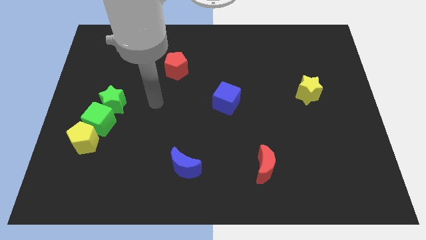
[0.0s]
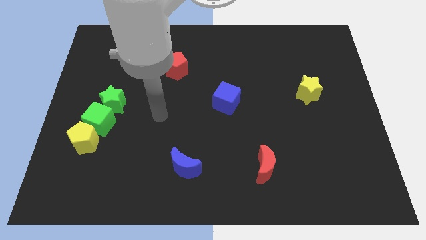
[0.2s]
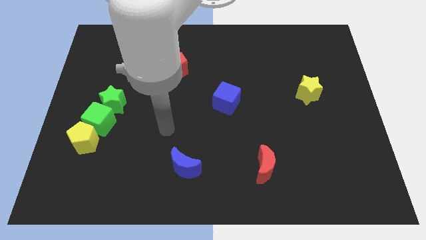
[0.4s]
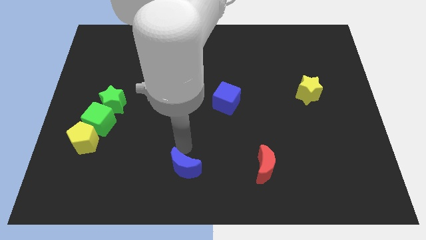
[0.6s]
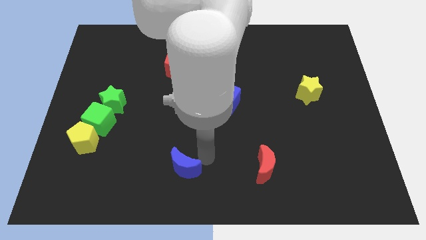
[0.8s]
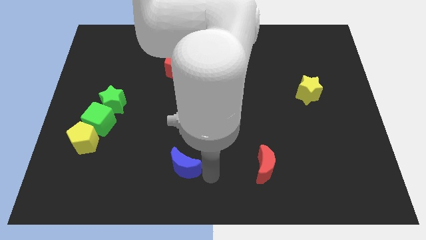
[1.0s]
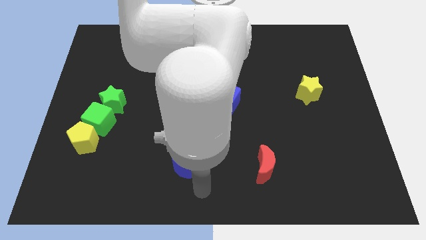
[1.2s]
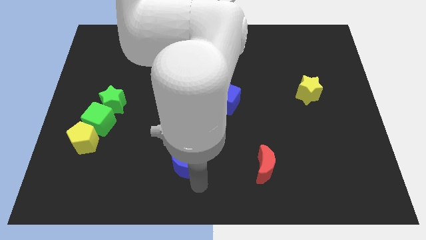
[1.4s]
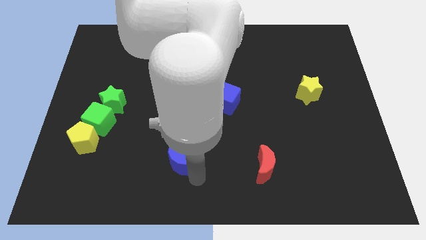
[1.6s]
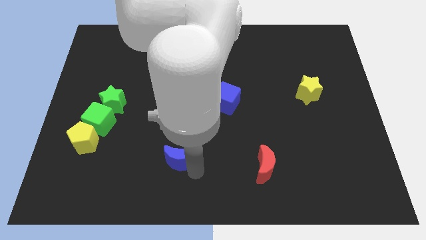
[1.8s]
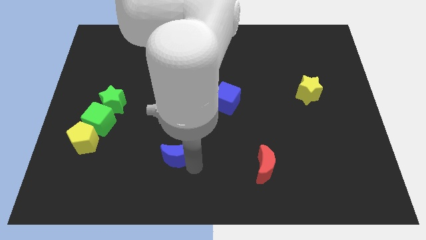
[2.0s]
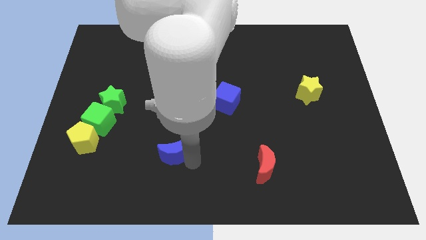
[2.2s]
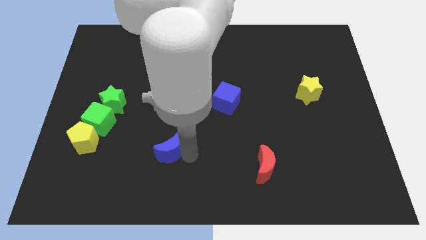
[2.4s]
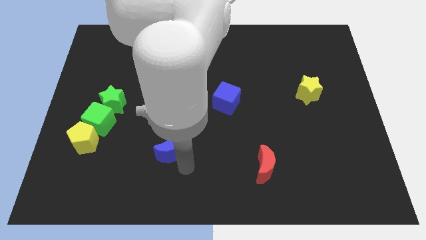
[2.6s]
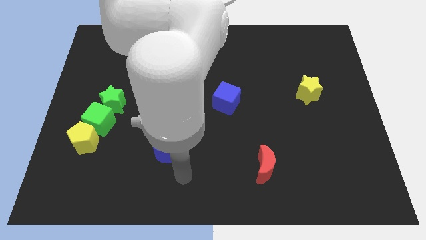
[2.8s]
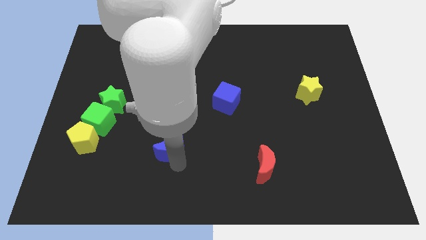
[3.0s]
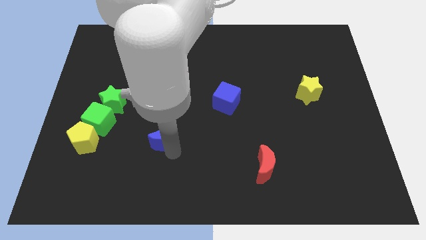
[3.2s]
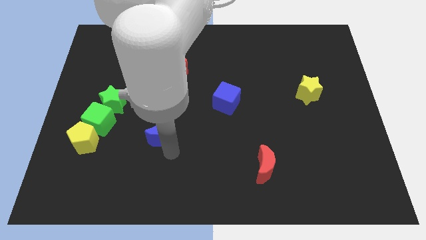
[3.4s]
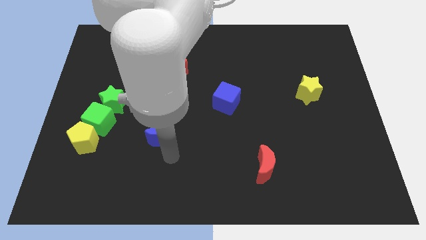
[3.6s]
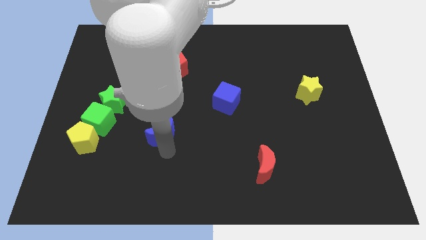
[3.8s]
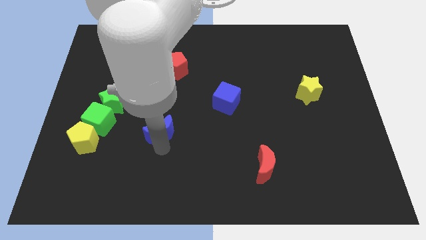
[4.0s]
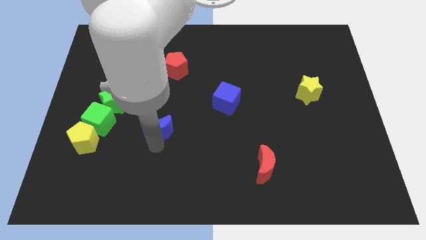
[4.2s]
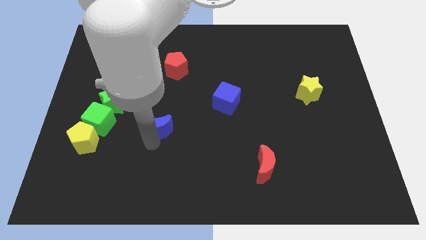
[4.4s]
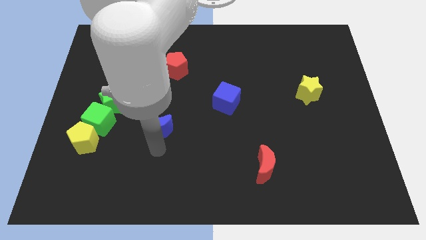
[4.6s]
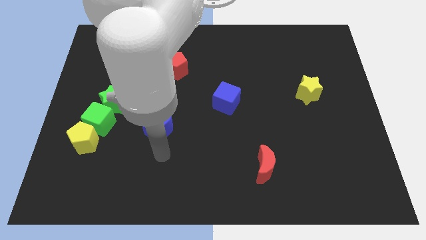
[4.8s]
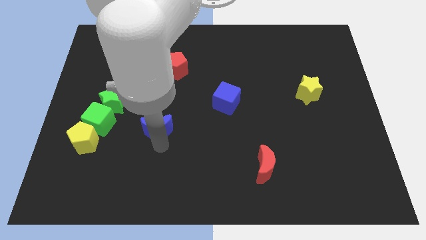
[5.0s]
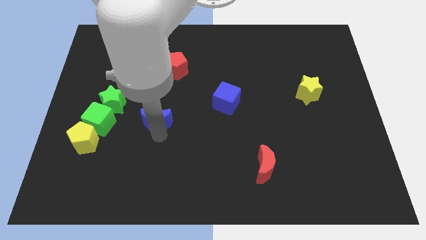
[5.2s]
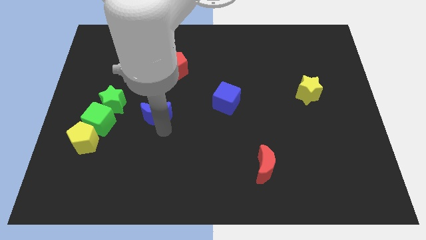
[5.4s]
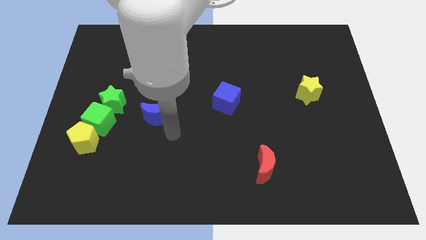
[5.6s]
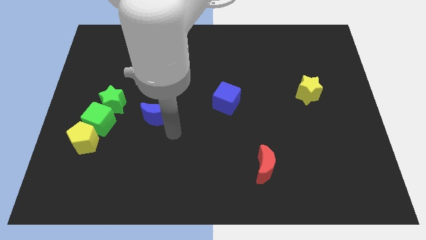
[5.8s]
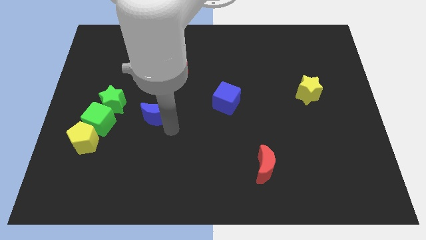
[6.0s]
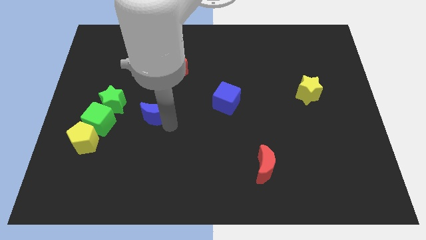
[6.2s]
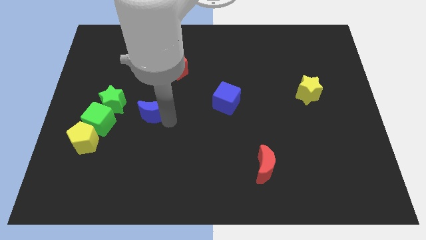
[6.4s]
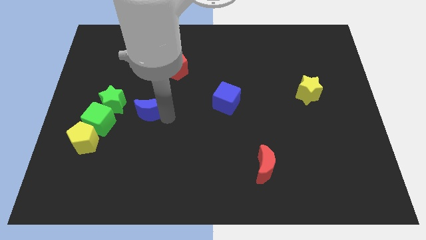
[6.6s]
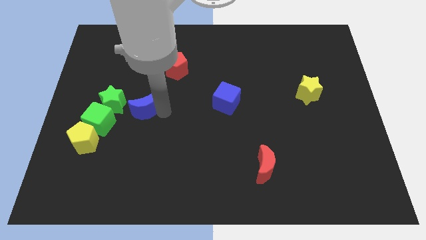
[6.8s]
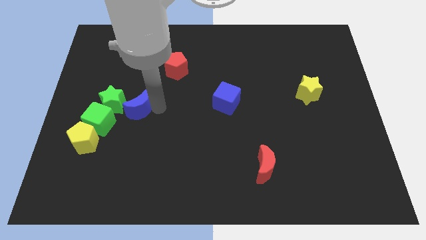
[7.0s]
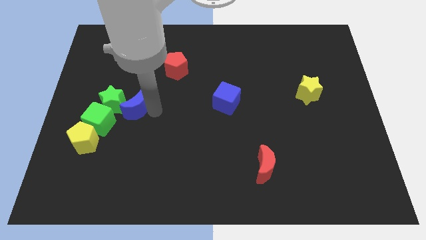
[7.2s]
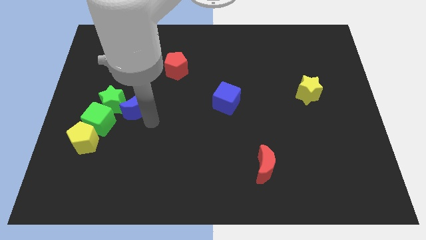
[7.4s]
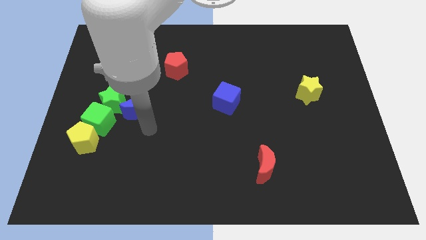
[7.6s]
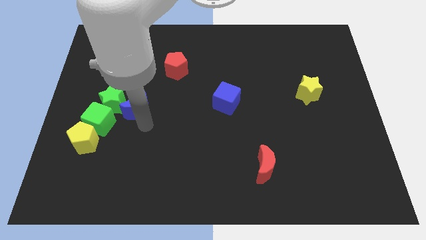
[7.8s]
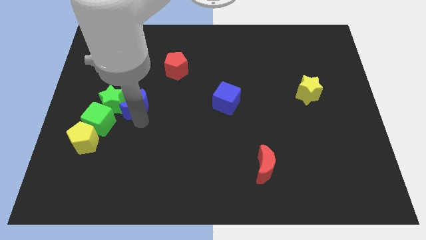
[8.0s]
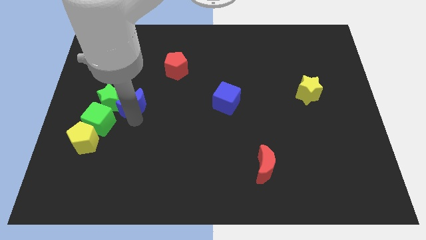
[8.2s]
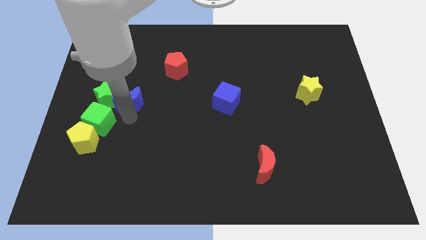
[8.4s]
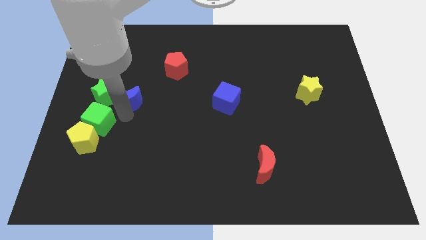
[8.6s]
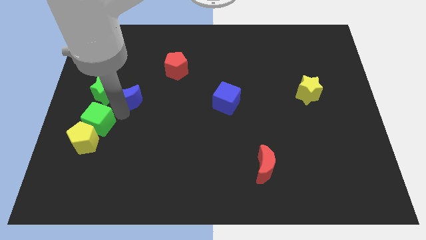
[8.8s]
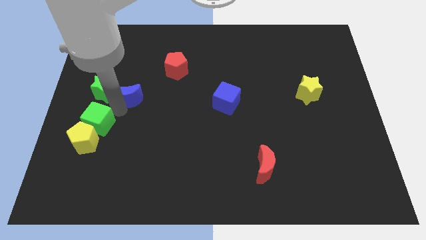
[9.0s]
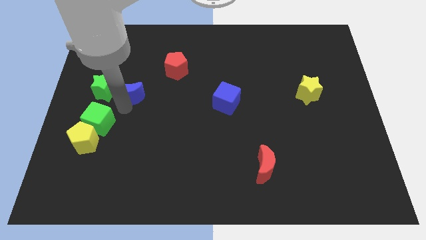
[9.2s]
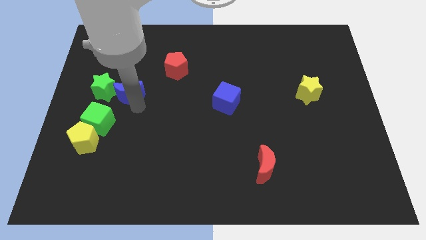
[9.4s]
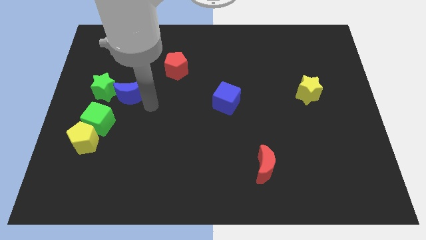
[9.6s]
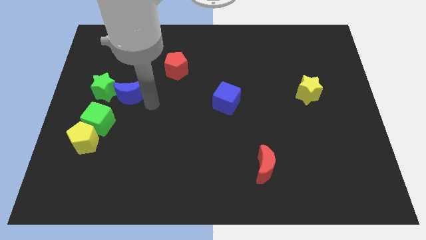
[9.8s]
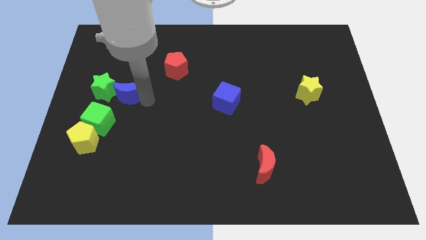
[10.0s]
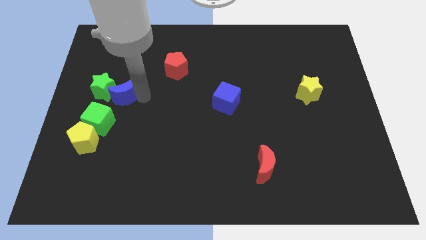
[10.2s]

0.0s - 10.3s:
slide the blue moon above the green cube

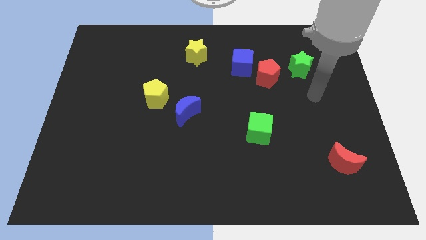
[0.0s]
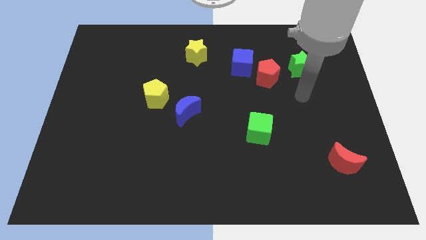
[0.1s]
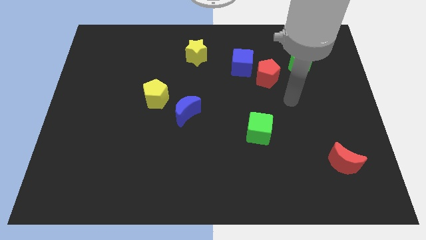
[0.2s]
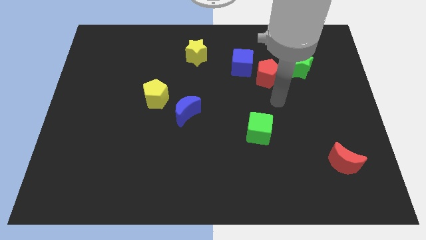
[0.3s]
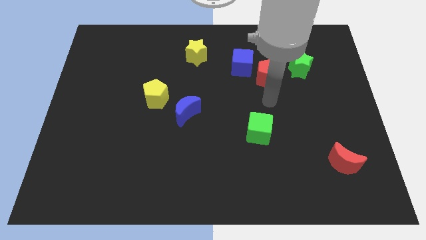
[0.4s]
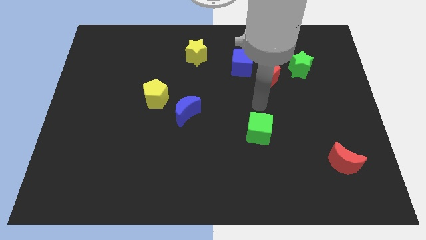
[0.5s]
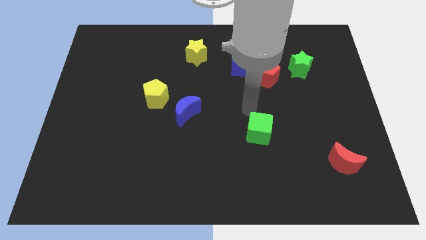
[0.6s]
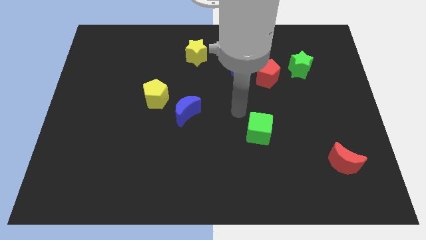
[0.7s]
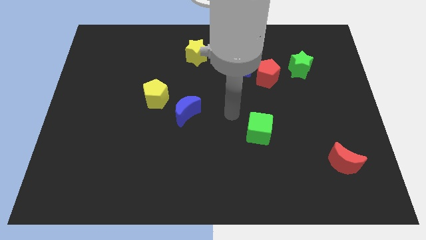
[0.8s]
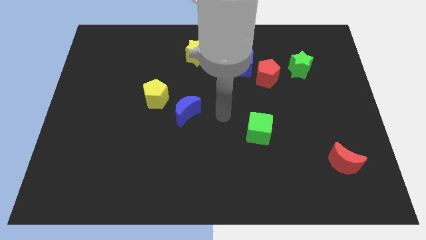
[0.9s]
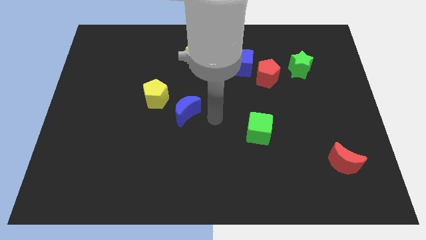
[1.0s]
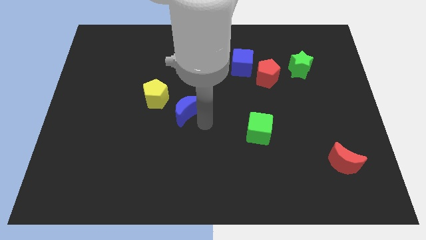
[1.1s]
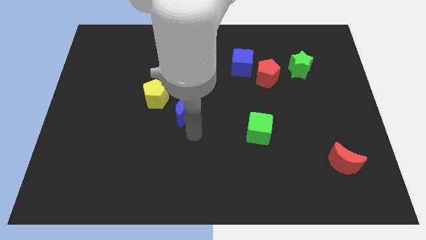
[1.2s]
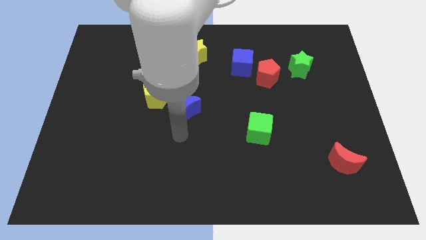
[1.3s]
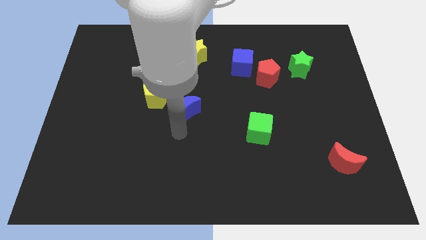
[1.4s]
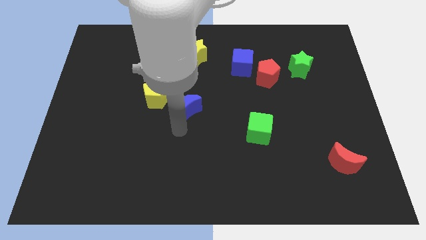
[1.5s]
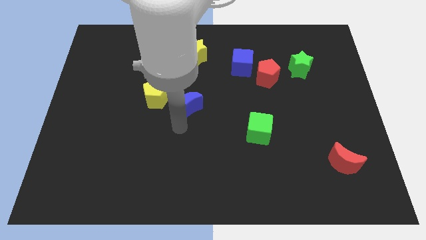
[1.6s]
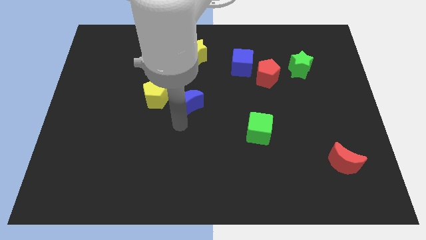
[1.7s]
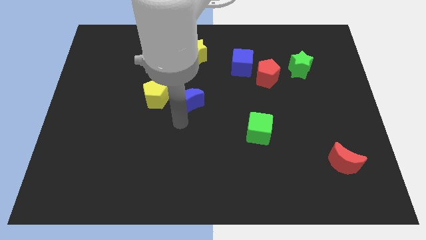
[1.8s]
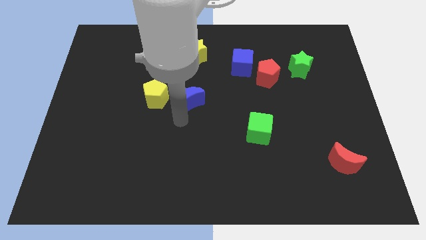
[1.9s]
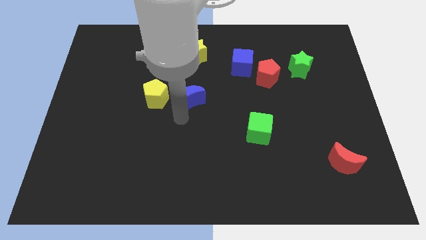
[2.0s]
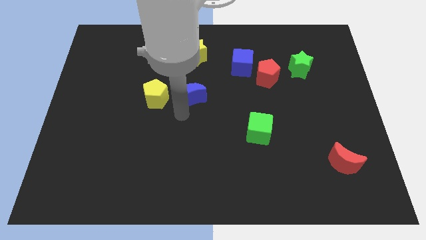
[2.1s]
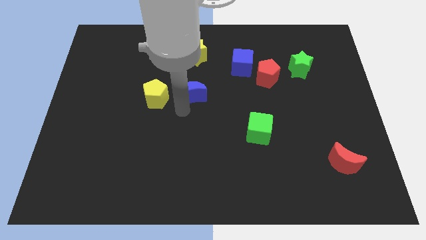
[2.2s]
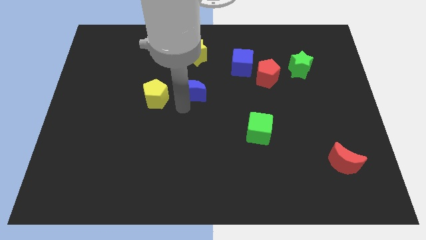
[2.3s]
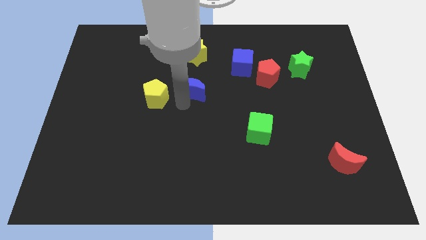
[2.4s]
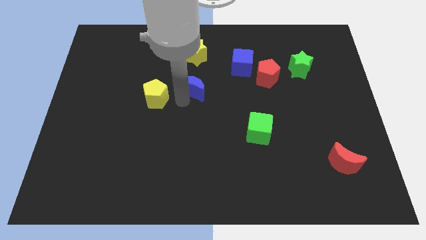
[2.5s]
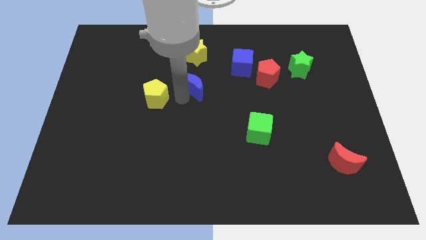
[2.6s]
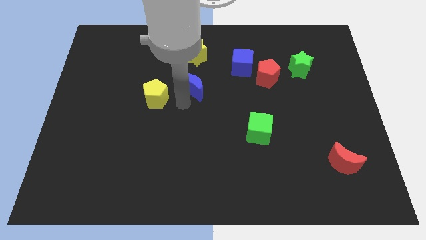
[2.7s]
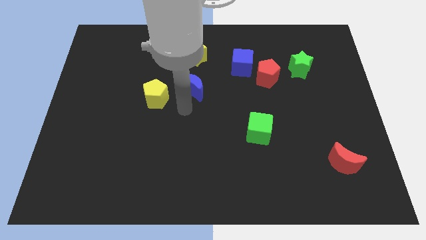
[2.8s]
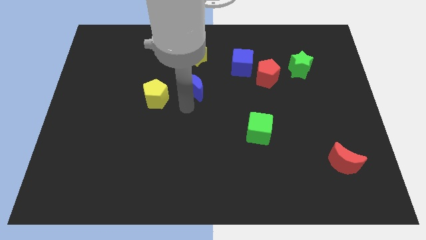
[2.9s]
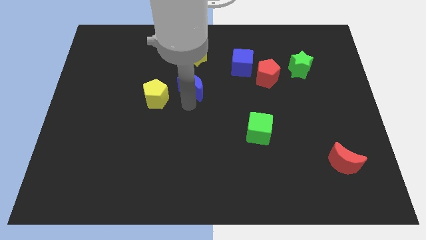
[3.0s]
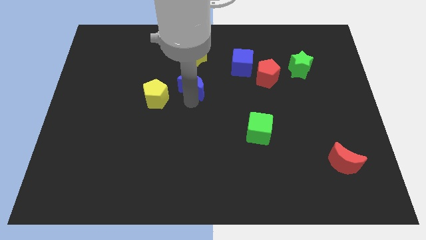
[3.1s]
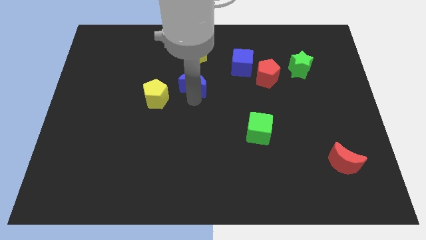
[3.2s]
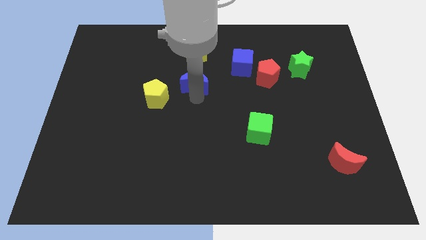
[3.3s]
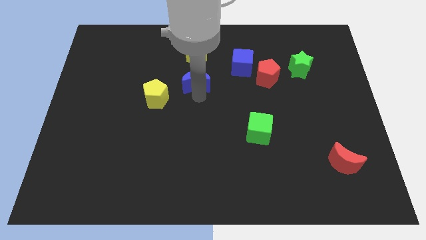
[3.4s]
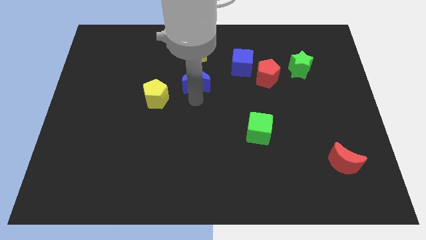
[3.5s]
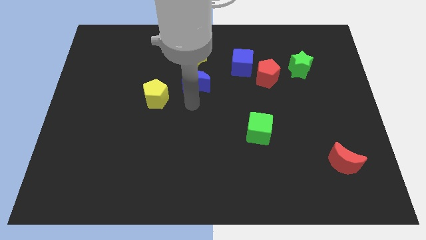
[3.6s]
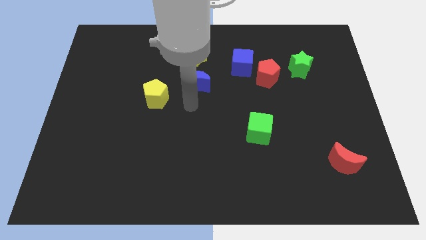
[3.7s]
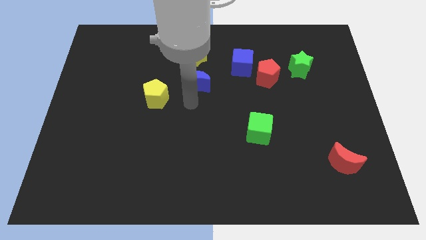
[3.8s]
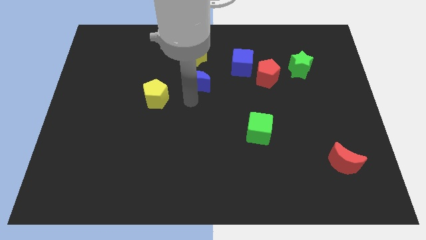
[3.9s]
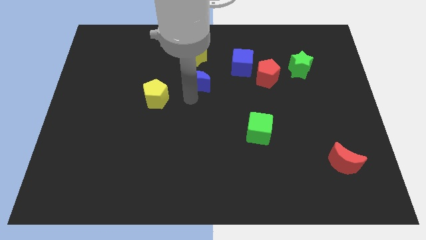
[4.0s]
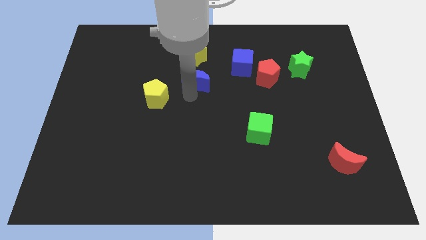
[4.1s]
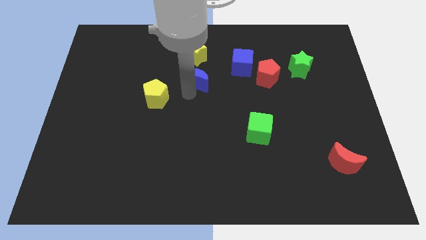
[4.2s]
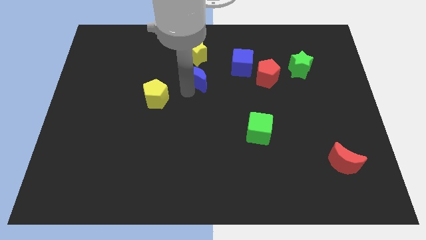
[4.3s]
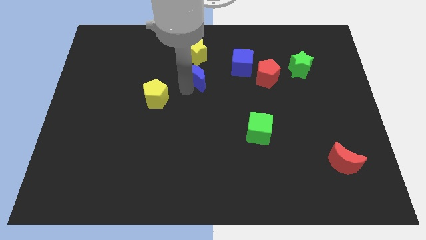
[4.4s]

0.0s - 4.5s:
slide the blue moon left of the blue cube
